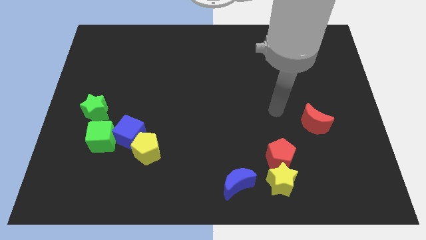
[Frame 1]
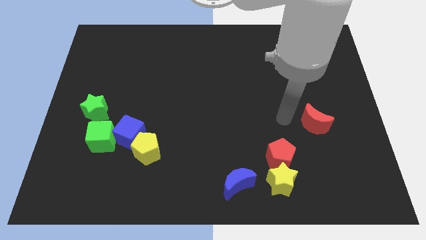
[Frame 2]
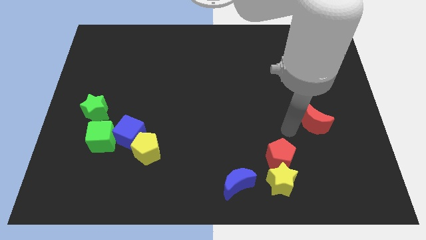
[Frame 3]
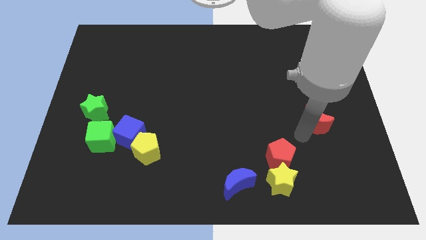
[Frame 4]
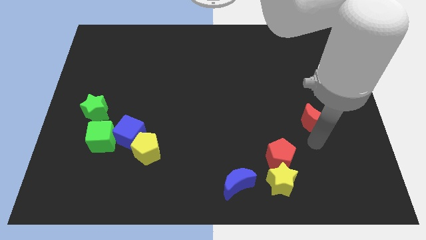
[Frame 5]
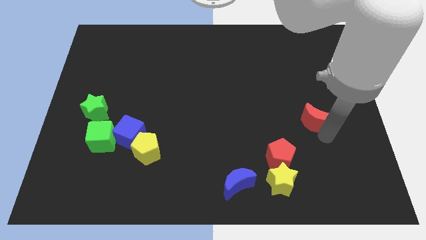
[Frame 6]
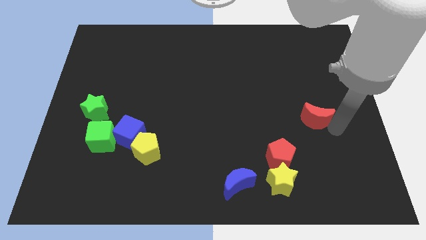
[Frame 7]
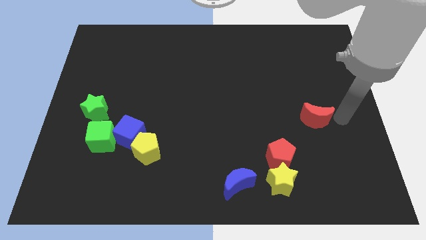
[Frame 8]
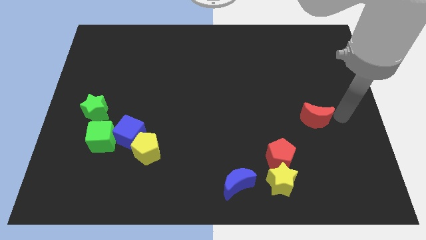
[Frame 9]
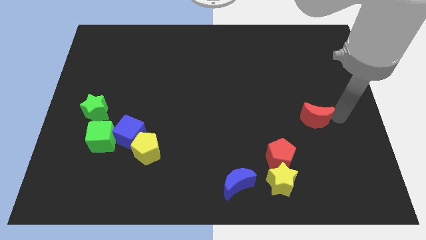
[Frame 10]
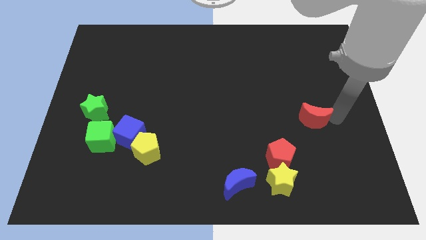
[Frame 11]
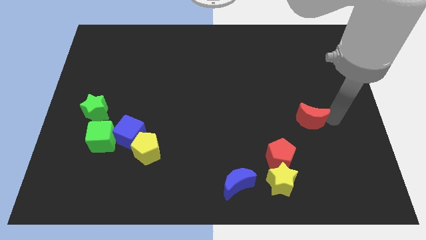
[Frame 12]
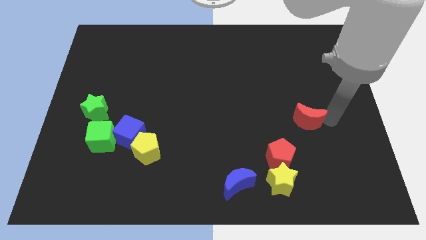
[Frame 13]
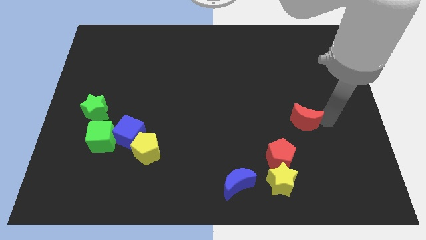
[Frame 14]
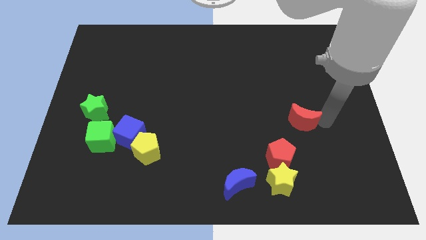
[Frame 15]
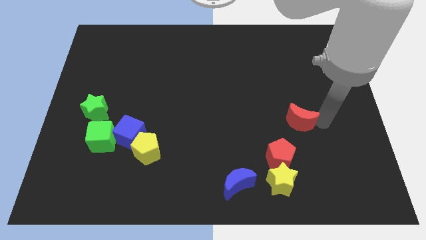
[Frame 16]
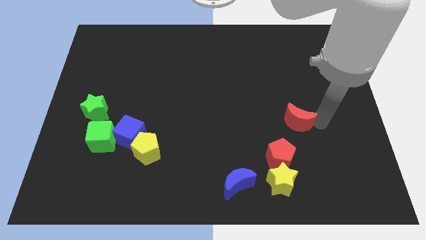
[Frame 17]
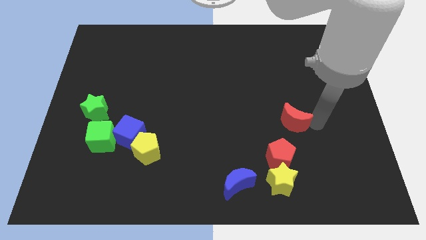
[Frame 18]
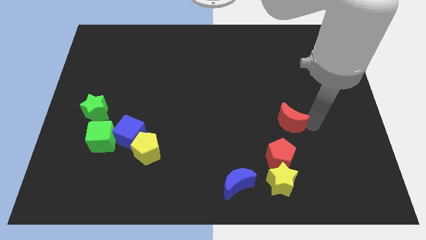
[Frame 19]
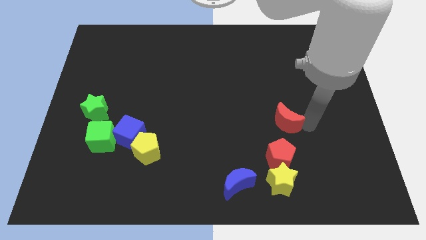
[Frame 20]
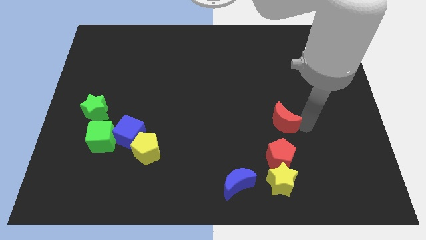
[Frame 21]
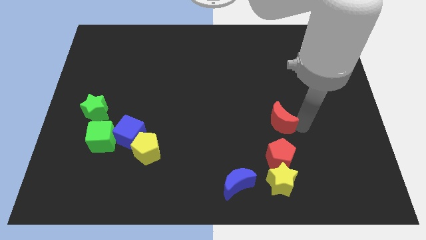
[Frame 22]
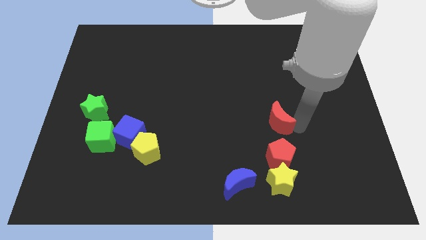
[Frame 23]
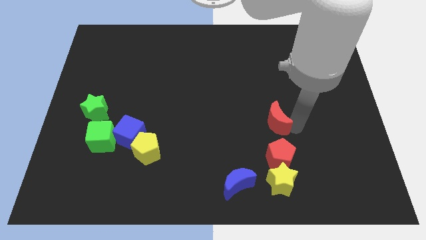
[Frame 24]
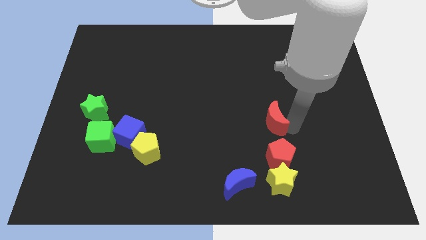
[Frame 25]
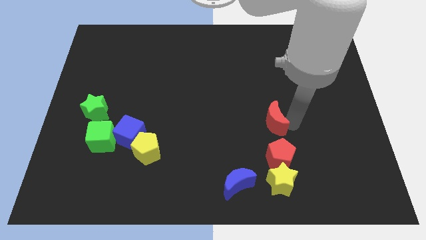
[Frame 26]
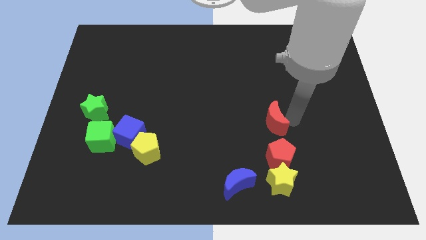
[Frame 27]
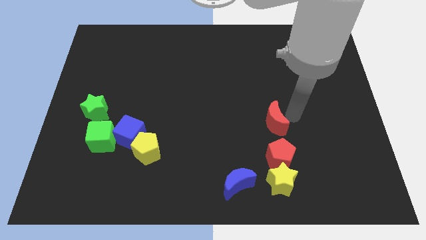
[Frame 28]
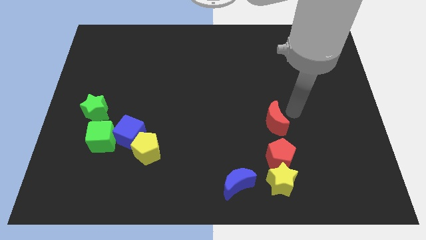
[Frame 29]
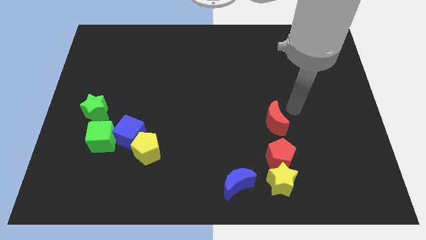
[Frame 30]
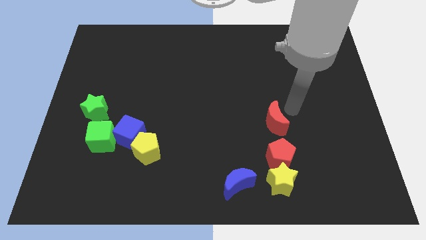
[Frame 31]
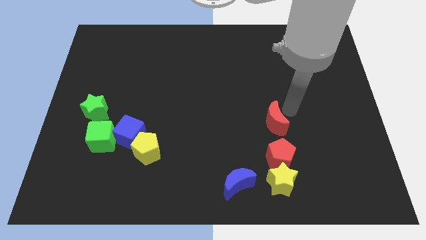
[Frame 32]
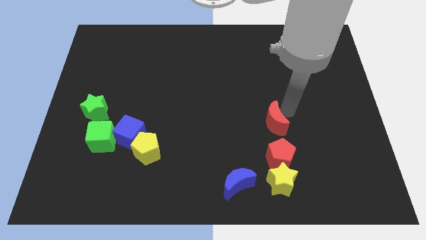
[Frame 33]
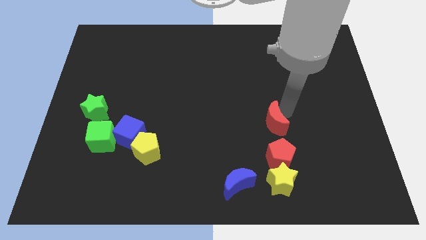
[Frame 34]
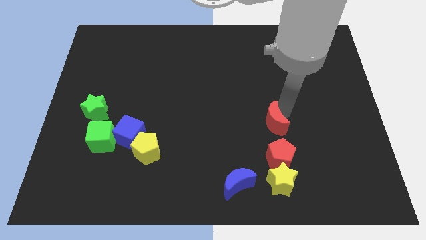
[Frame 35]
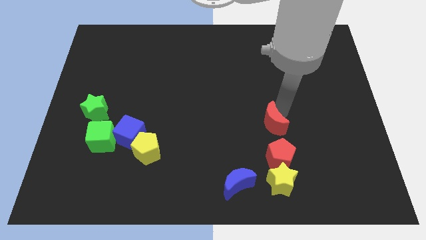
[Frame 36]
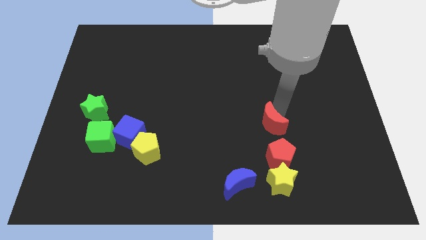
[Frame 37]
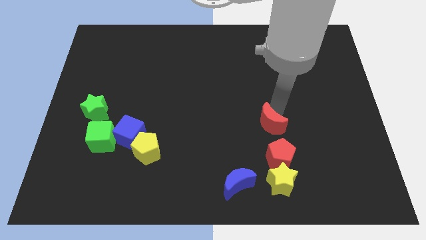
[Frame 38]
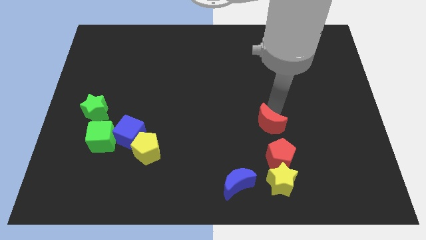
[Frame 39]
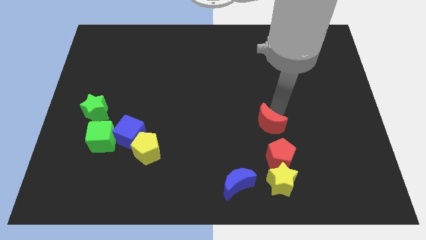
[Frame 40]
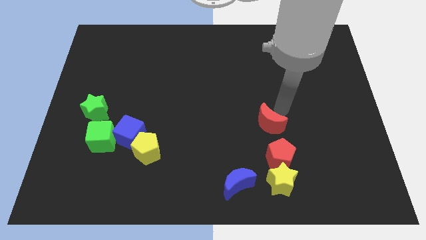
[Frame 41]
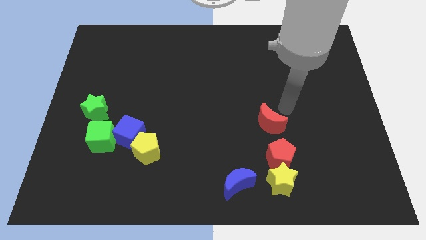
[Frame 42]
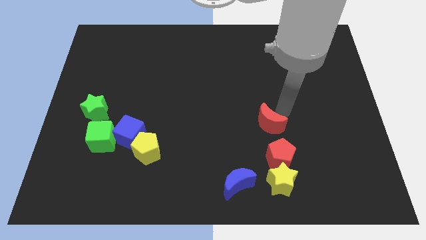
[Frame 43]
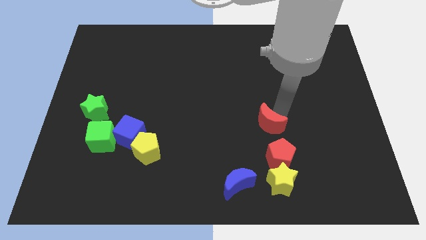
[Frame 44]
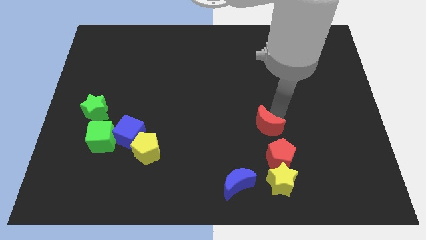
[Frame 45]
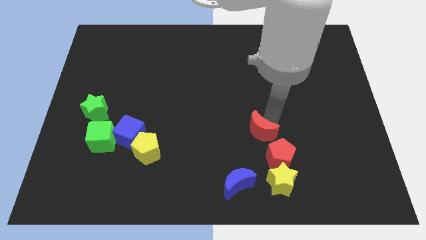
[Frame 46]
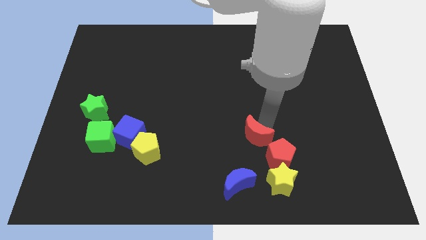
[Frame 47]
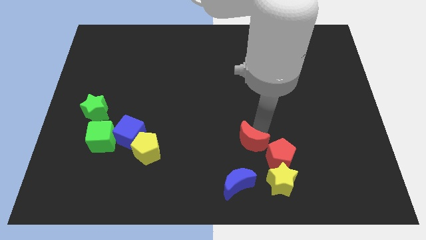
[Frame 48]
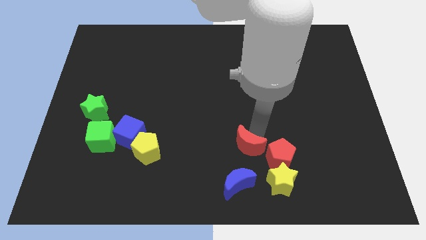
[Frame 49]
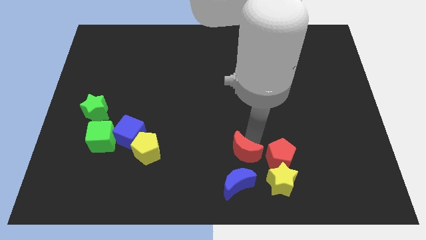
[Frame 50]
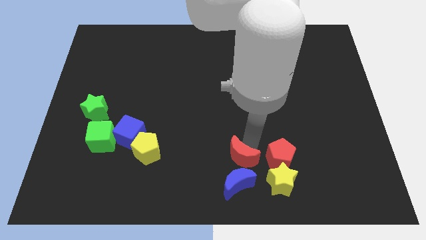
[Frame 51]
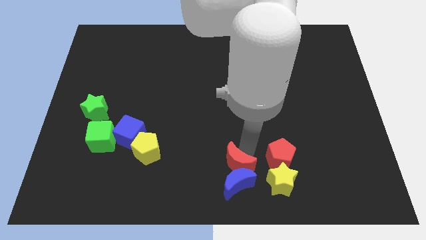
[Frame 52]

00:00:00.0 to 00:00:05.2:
move the red moon to the bottom

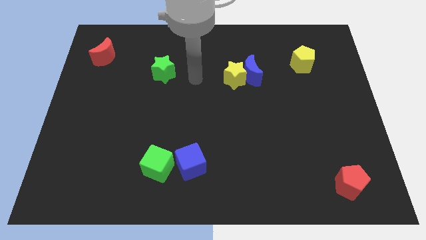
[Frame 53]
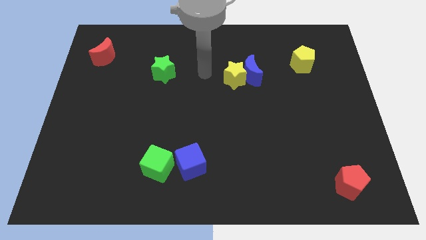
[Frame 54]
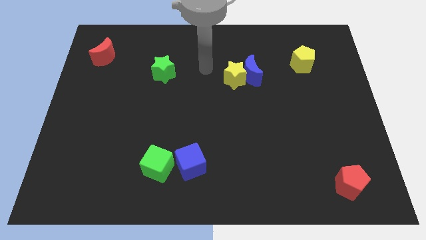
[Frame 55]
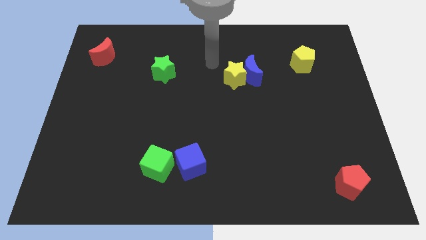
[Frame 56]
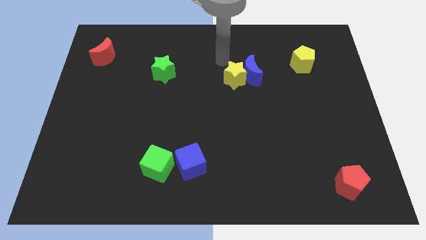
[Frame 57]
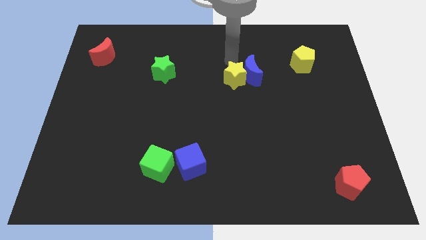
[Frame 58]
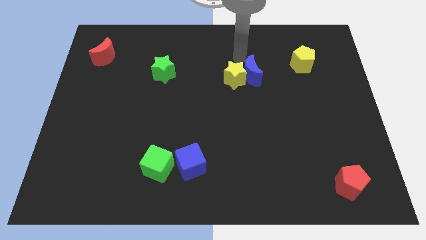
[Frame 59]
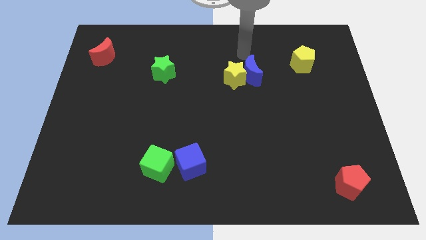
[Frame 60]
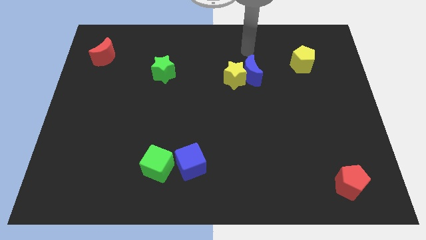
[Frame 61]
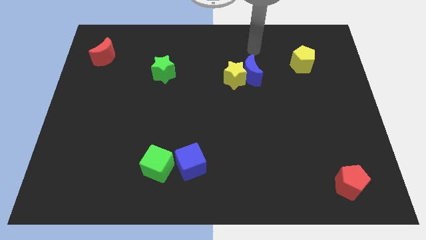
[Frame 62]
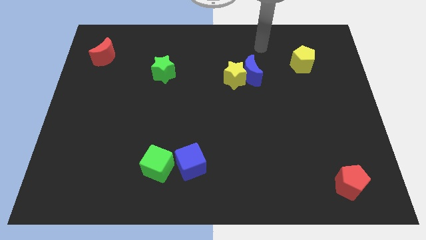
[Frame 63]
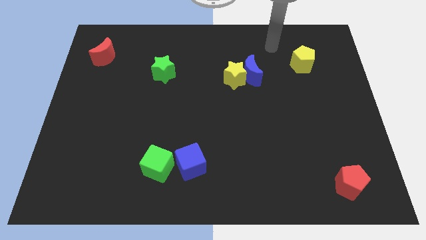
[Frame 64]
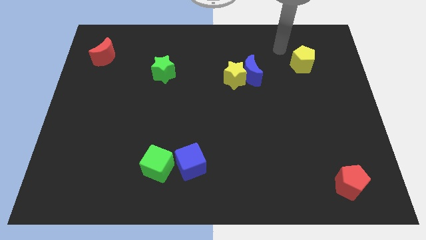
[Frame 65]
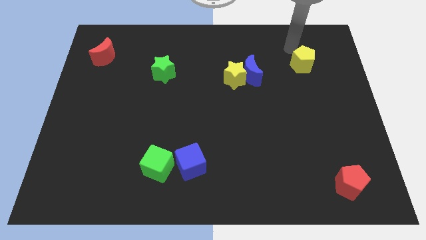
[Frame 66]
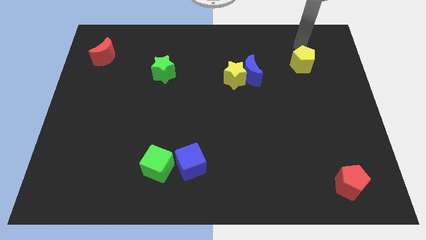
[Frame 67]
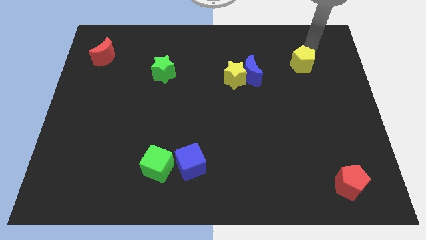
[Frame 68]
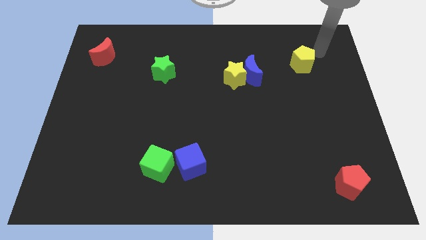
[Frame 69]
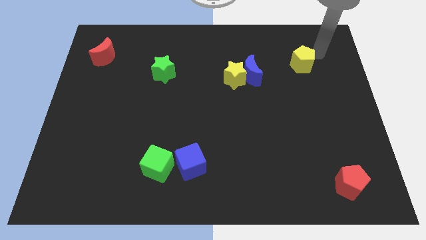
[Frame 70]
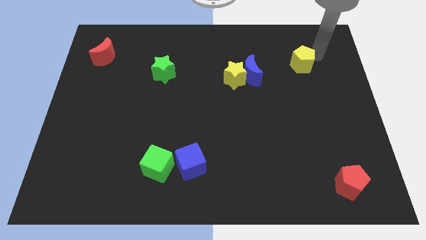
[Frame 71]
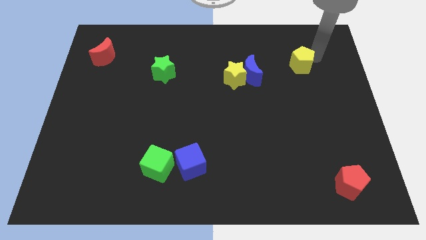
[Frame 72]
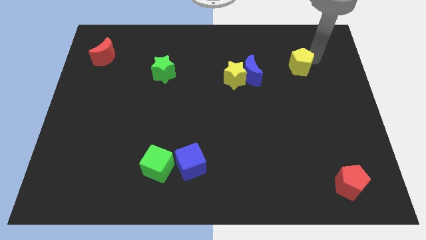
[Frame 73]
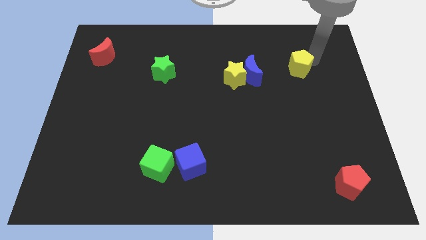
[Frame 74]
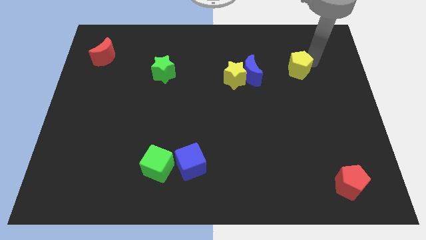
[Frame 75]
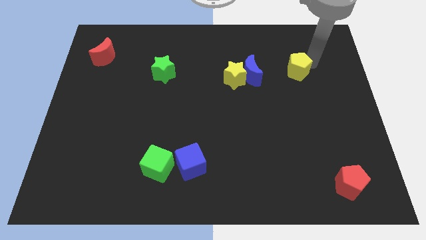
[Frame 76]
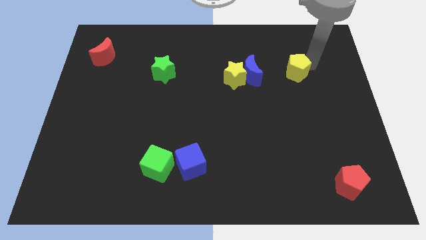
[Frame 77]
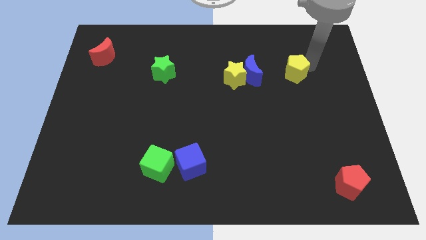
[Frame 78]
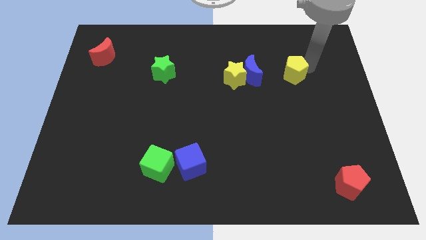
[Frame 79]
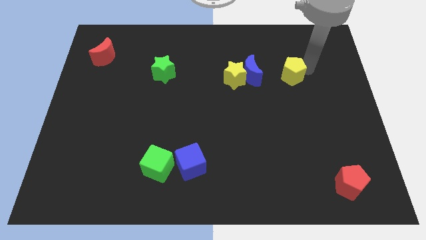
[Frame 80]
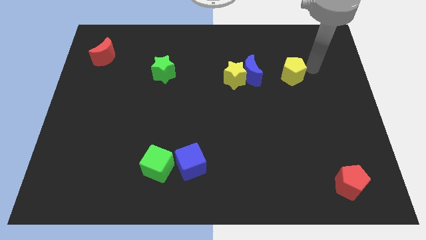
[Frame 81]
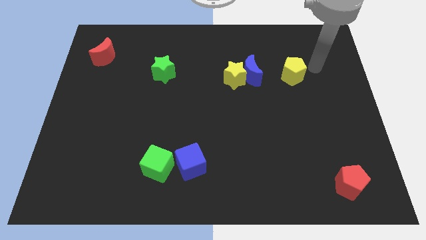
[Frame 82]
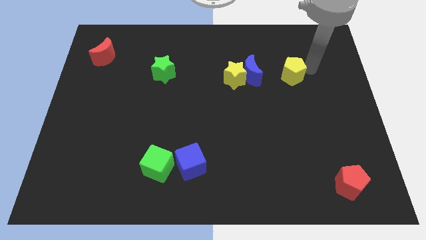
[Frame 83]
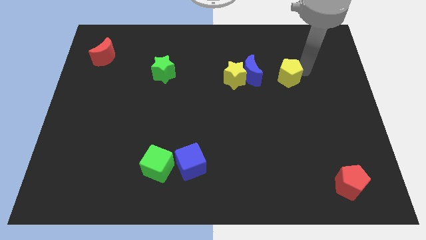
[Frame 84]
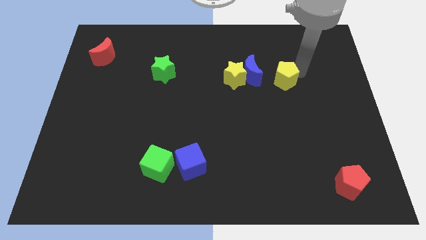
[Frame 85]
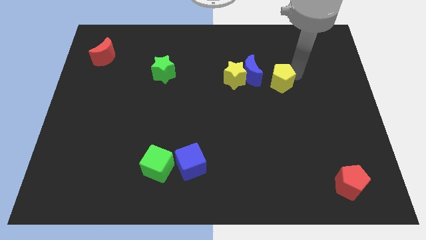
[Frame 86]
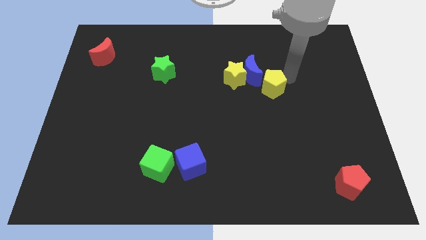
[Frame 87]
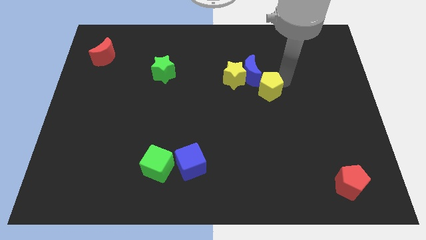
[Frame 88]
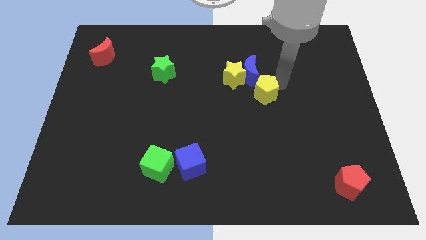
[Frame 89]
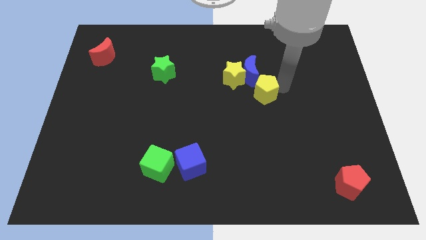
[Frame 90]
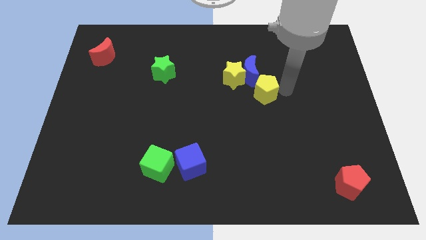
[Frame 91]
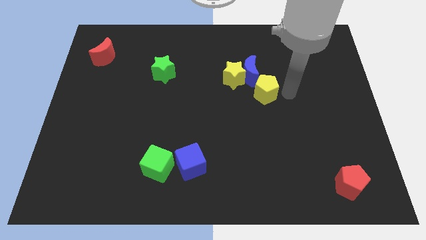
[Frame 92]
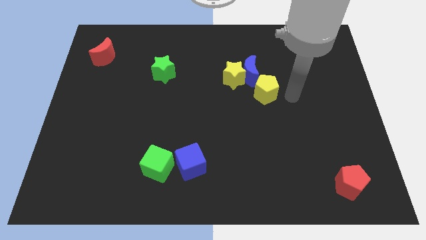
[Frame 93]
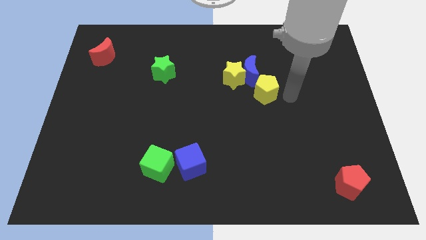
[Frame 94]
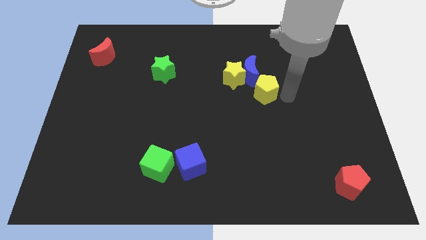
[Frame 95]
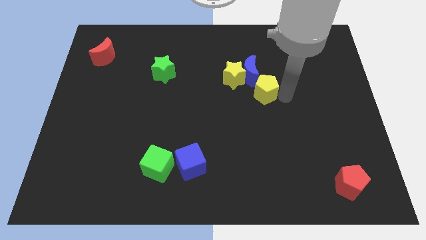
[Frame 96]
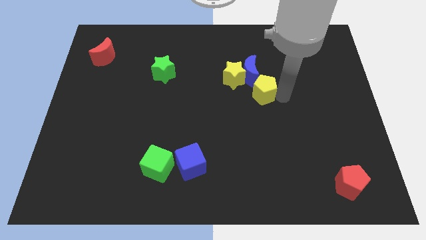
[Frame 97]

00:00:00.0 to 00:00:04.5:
slide the yellow pentagon to the middle
